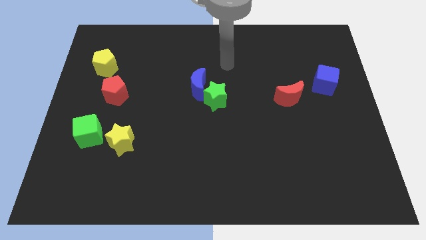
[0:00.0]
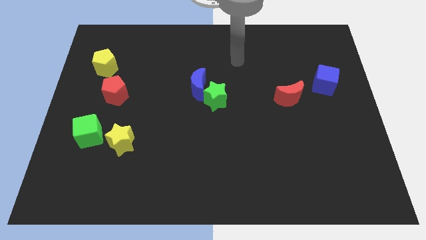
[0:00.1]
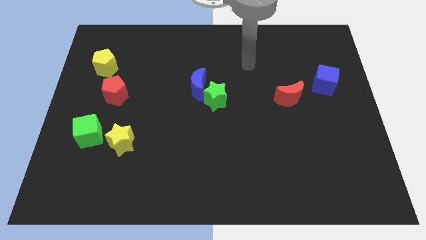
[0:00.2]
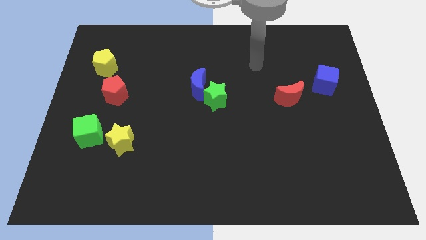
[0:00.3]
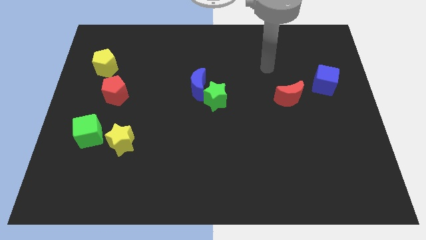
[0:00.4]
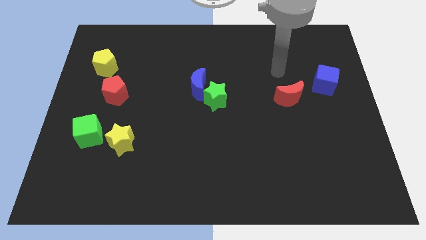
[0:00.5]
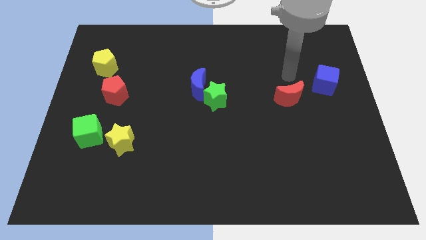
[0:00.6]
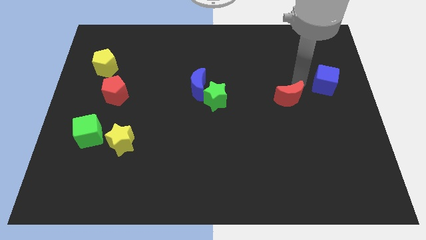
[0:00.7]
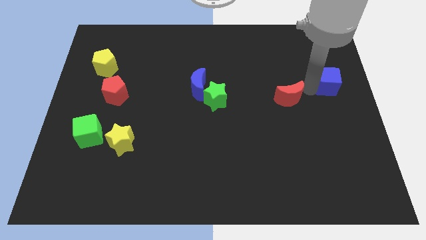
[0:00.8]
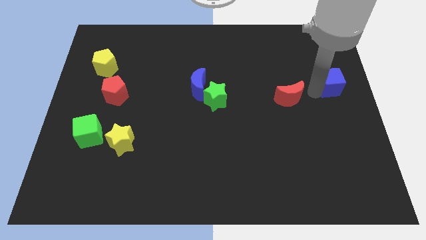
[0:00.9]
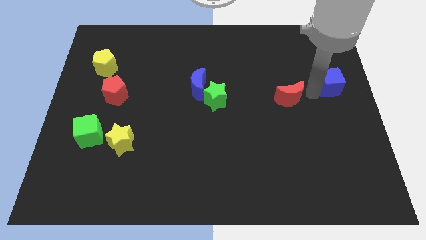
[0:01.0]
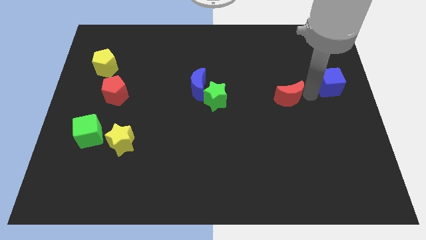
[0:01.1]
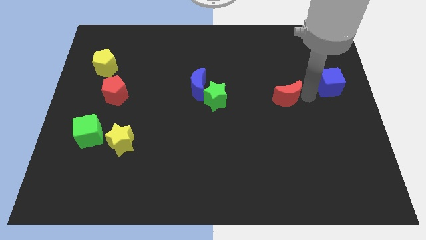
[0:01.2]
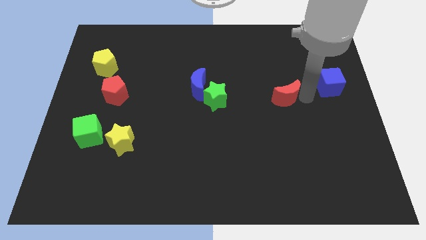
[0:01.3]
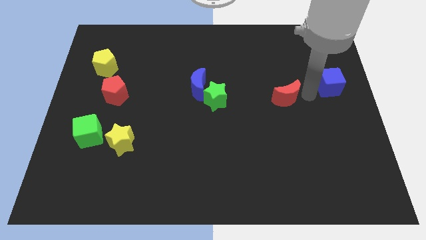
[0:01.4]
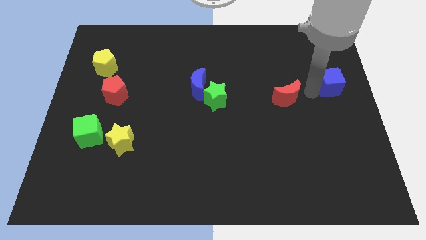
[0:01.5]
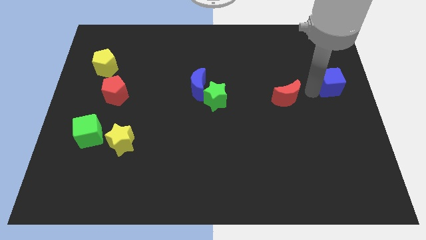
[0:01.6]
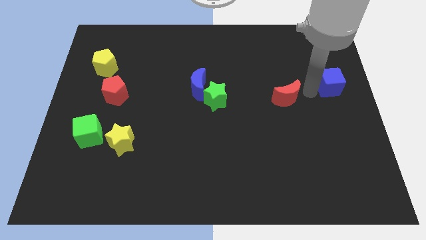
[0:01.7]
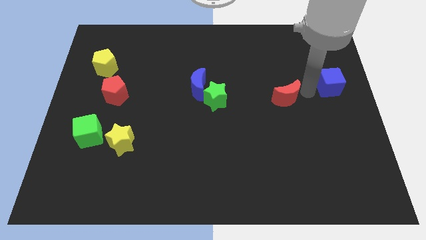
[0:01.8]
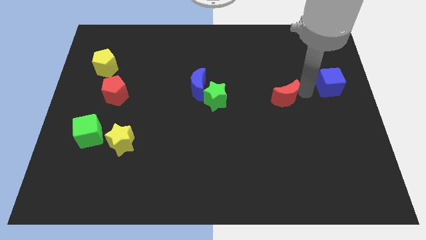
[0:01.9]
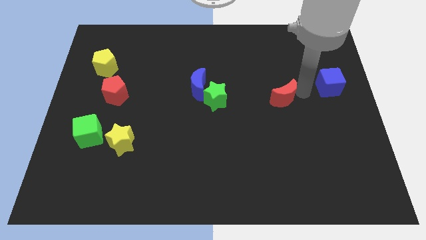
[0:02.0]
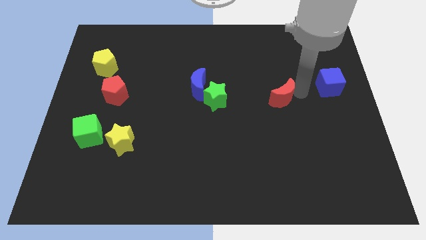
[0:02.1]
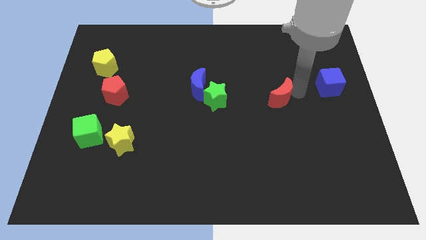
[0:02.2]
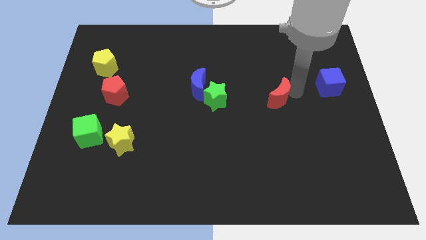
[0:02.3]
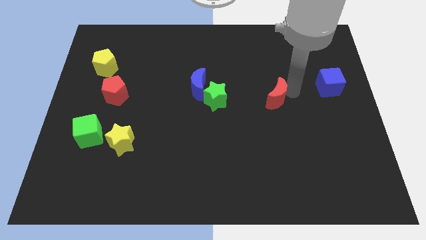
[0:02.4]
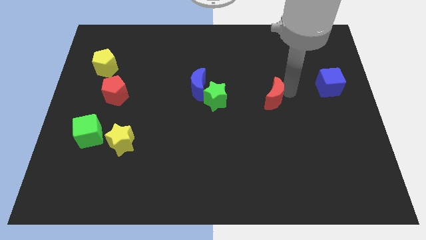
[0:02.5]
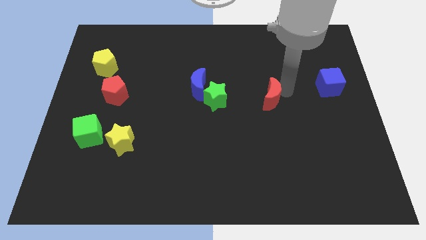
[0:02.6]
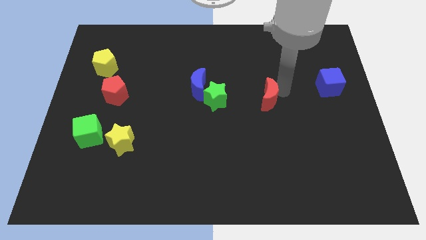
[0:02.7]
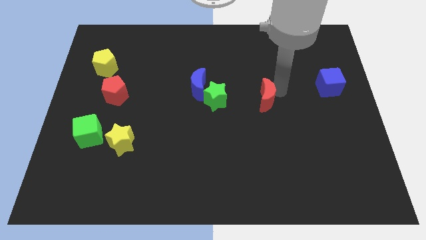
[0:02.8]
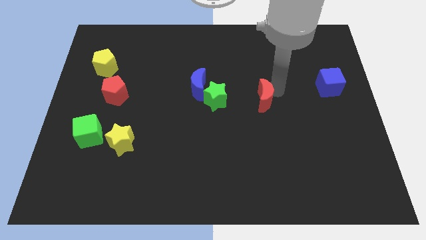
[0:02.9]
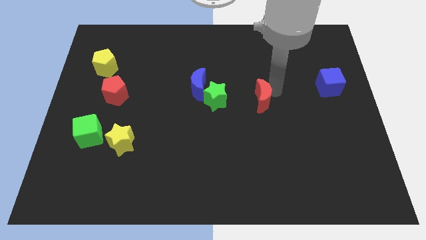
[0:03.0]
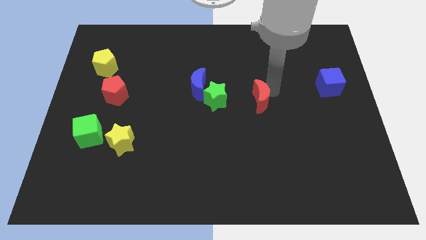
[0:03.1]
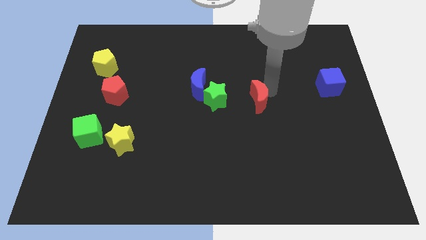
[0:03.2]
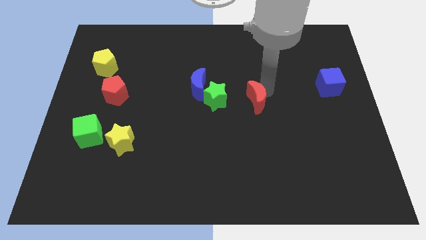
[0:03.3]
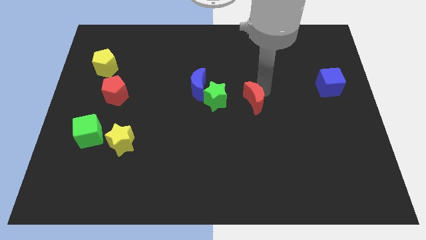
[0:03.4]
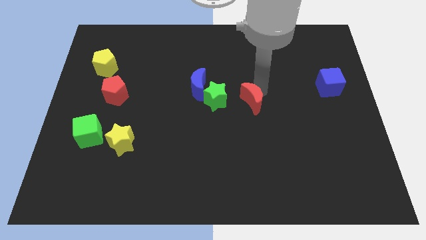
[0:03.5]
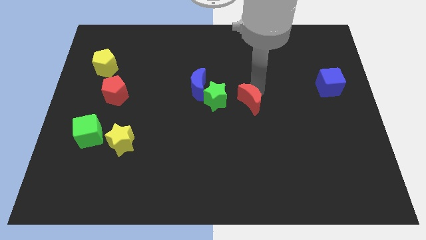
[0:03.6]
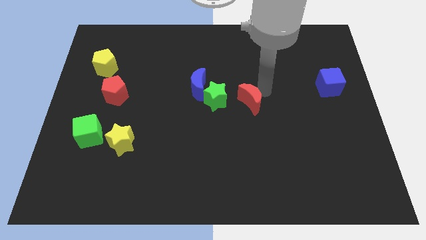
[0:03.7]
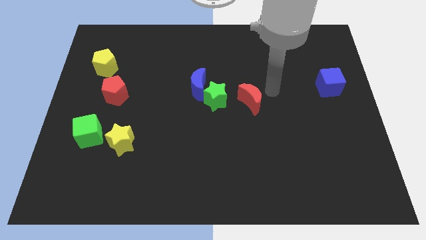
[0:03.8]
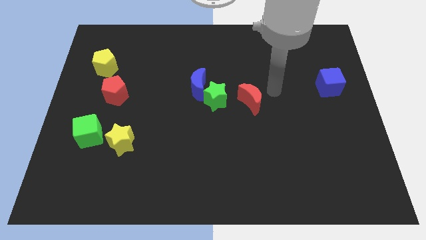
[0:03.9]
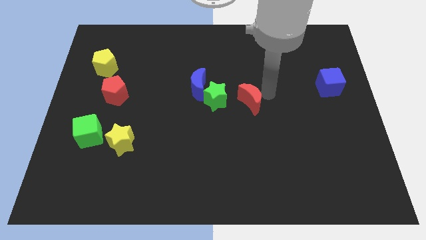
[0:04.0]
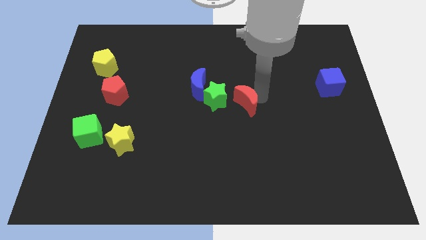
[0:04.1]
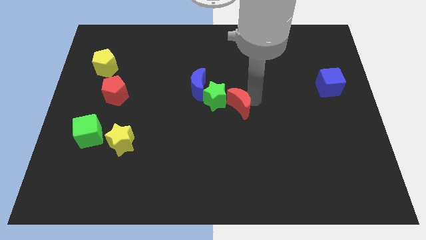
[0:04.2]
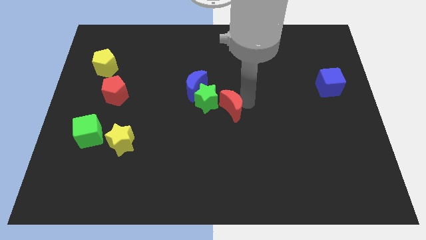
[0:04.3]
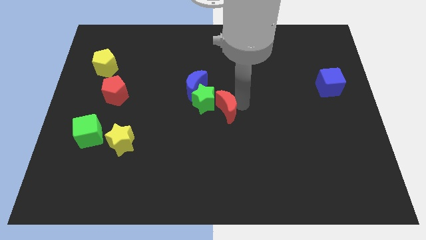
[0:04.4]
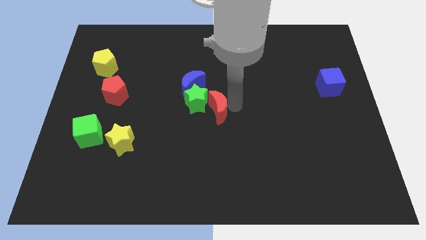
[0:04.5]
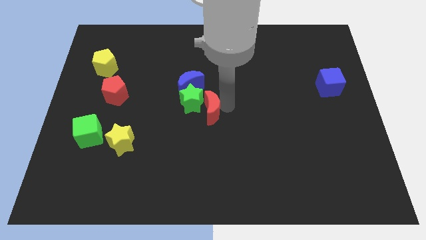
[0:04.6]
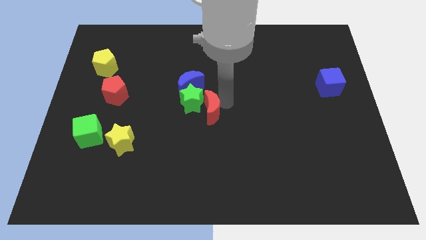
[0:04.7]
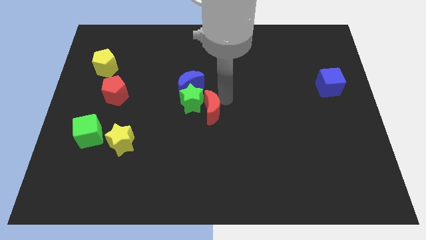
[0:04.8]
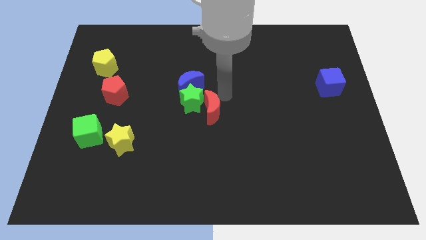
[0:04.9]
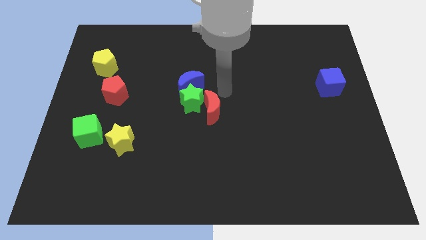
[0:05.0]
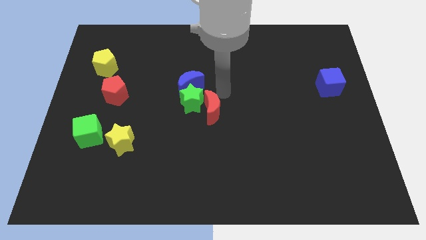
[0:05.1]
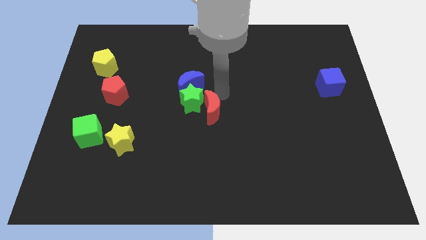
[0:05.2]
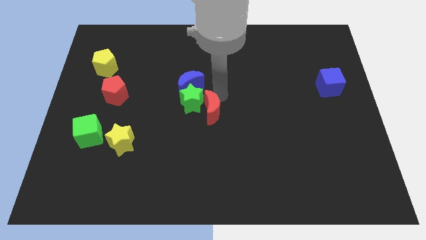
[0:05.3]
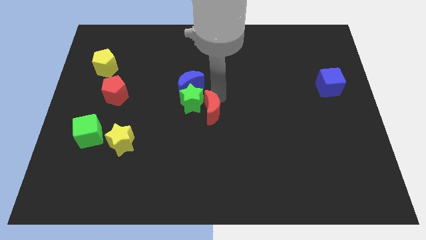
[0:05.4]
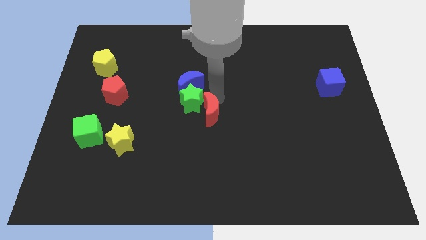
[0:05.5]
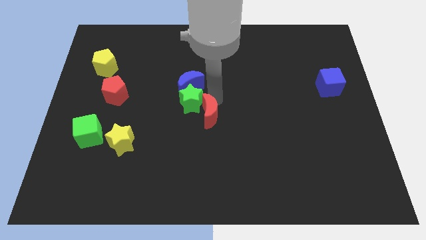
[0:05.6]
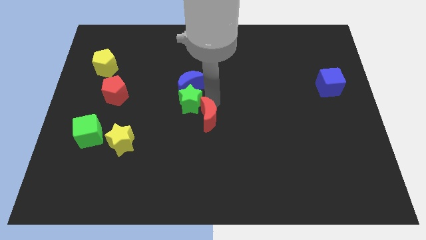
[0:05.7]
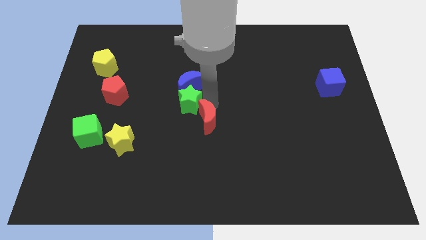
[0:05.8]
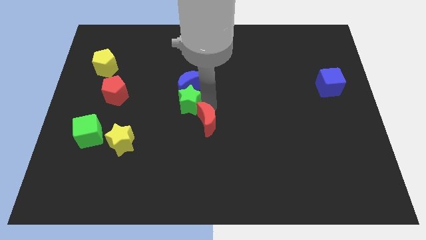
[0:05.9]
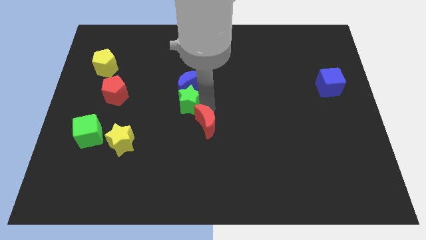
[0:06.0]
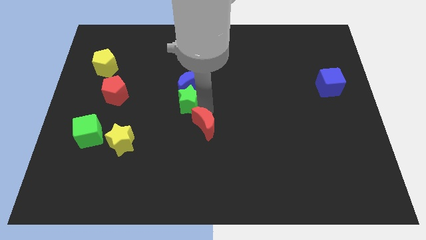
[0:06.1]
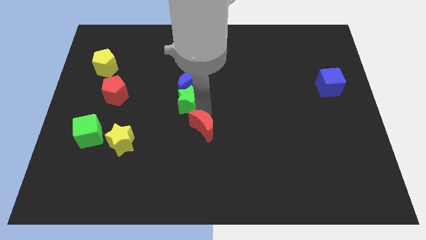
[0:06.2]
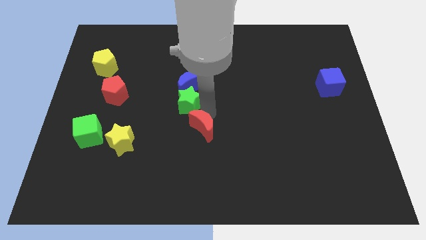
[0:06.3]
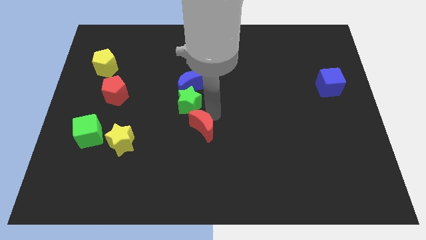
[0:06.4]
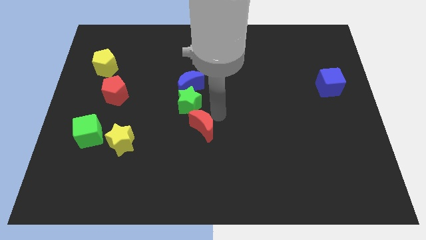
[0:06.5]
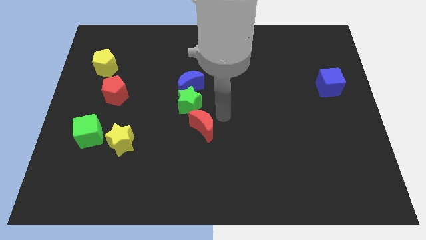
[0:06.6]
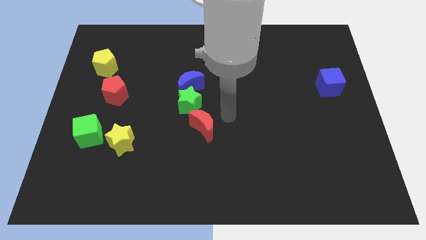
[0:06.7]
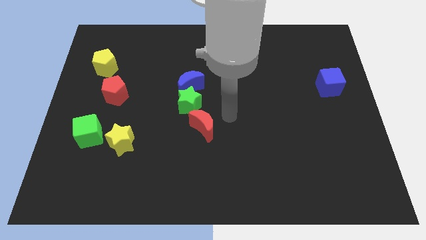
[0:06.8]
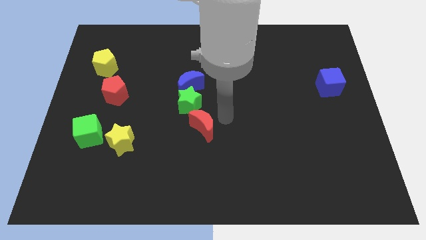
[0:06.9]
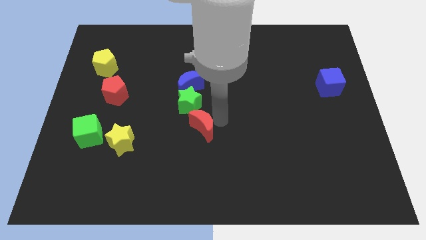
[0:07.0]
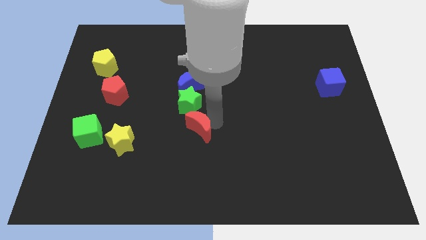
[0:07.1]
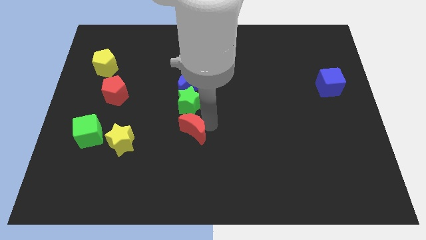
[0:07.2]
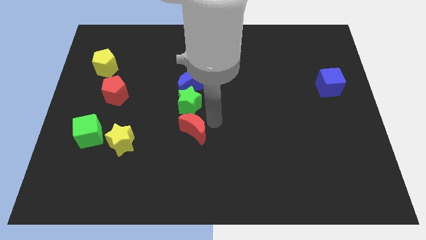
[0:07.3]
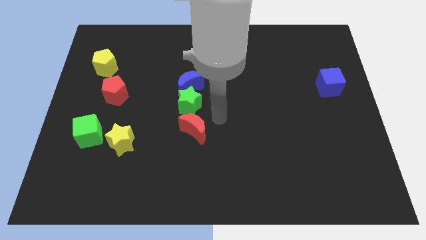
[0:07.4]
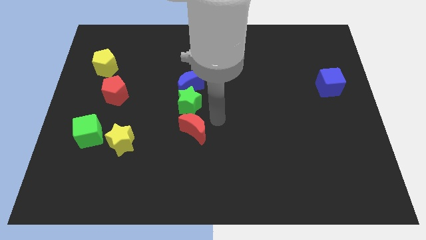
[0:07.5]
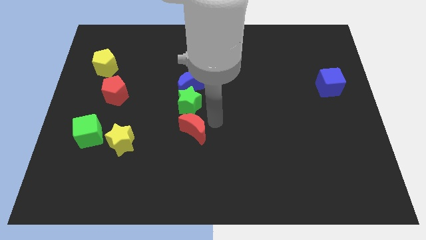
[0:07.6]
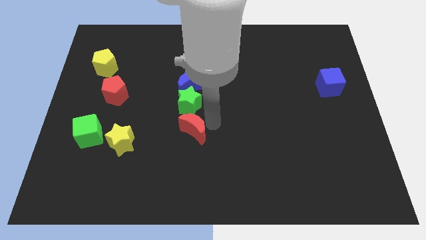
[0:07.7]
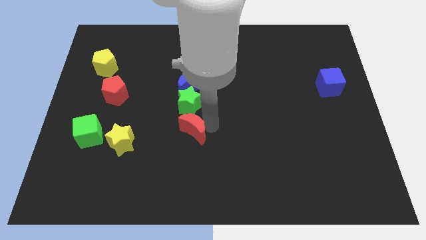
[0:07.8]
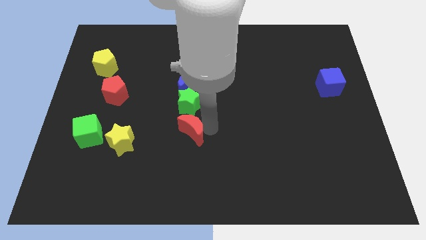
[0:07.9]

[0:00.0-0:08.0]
put the red moon to the right side of the yellow star
